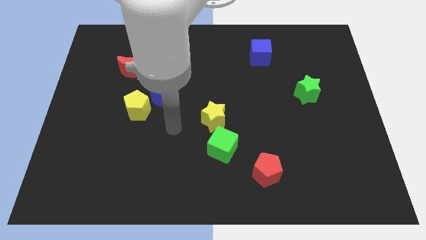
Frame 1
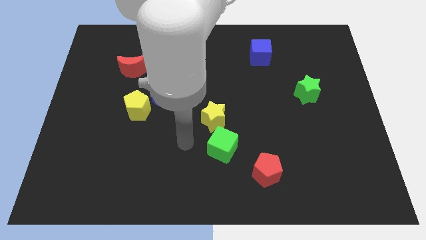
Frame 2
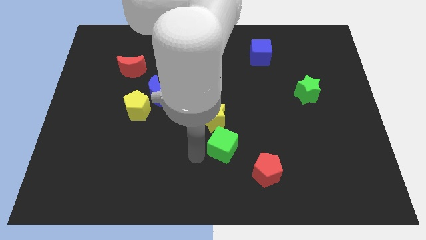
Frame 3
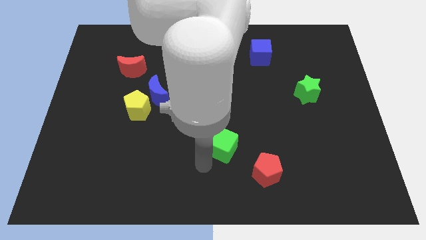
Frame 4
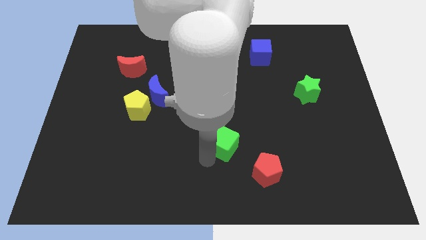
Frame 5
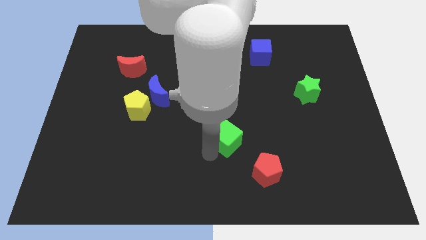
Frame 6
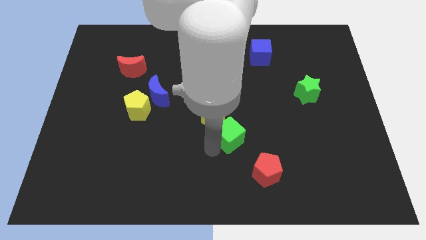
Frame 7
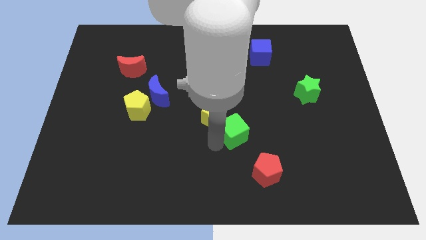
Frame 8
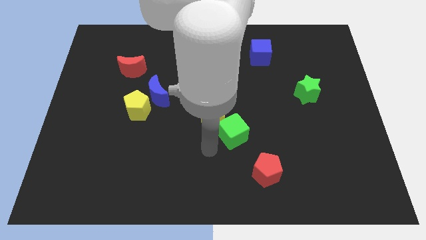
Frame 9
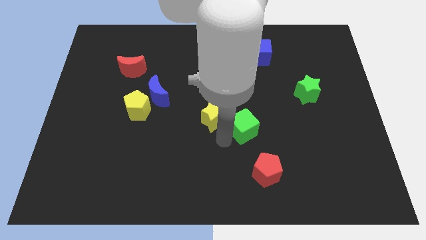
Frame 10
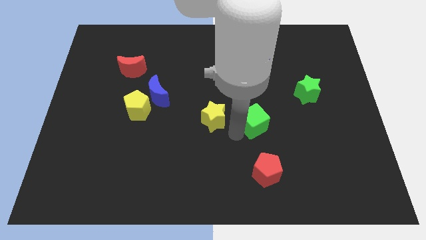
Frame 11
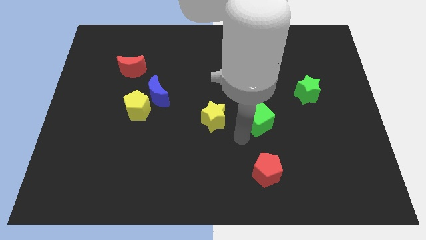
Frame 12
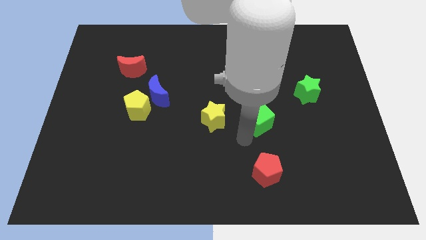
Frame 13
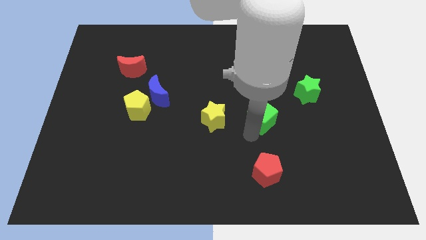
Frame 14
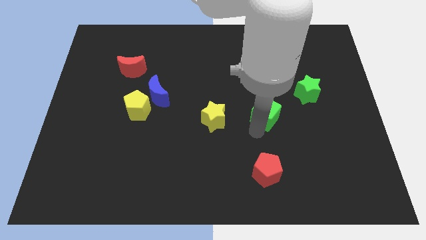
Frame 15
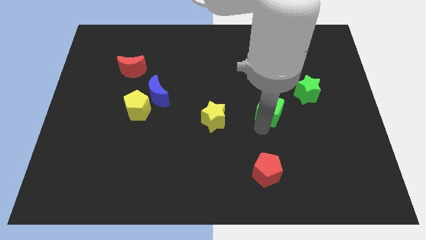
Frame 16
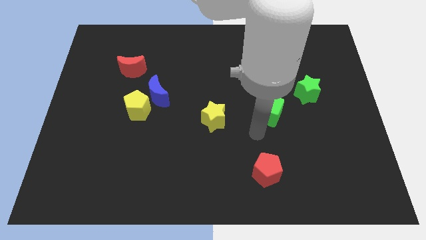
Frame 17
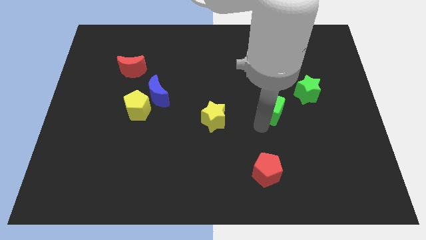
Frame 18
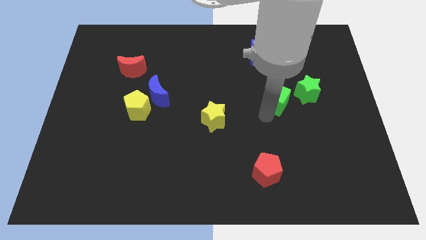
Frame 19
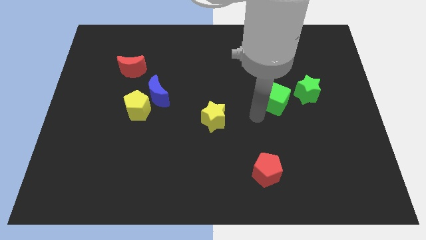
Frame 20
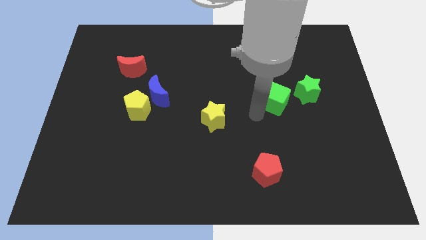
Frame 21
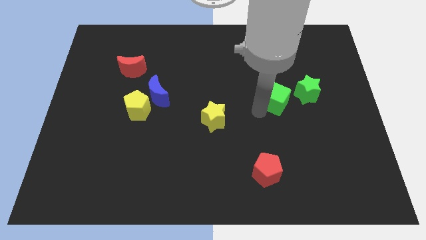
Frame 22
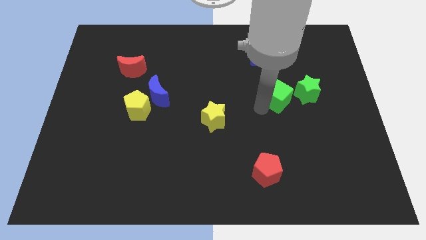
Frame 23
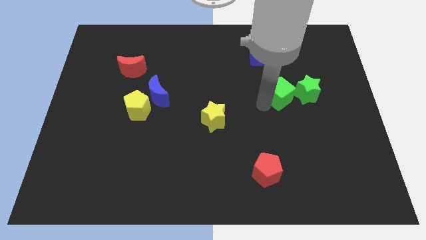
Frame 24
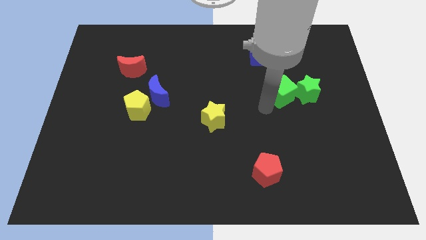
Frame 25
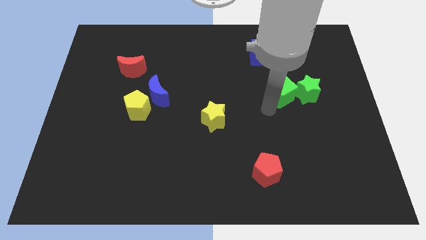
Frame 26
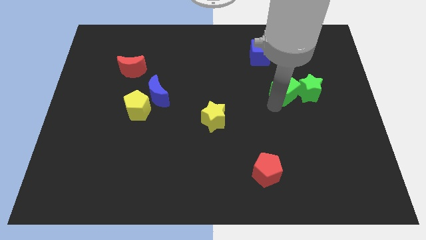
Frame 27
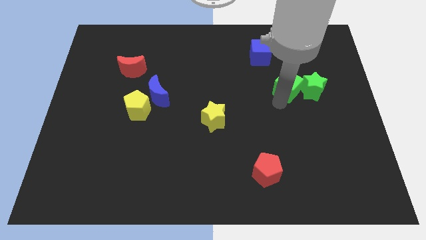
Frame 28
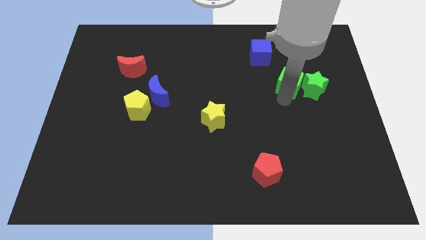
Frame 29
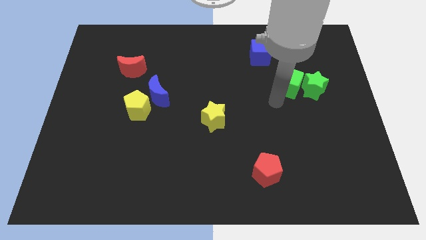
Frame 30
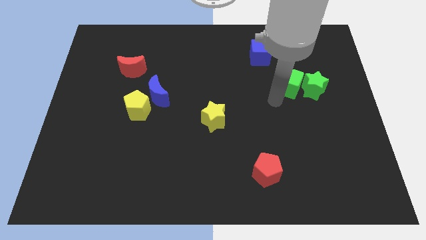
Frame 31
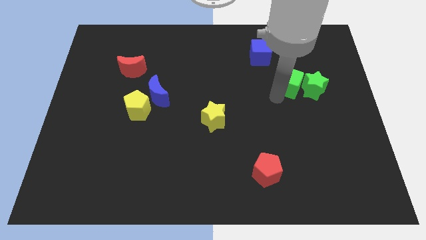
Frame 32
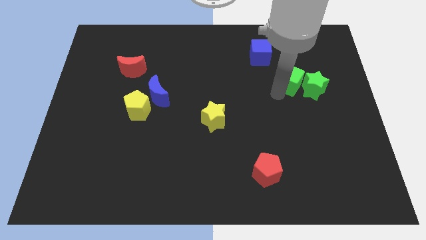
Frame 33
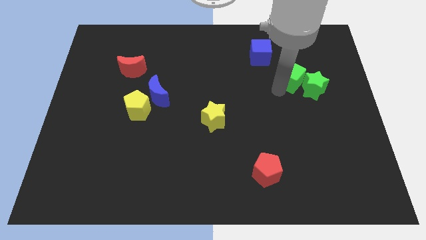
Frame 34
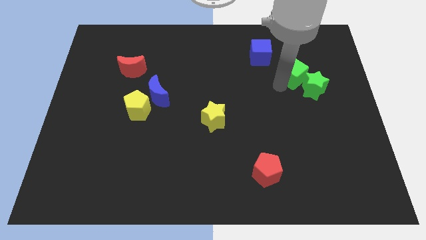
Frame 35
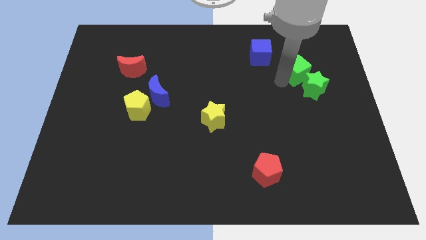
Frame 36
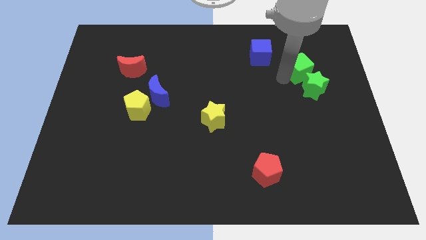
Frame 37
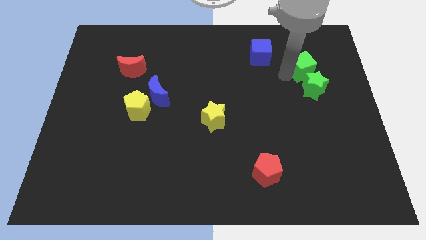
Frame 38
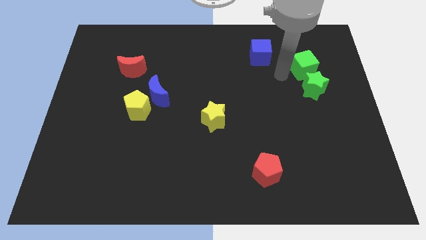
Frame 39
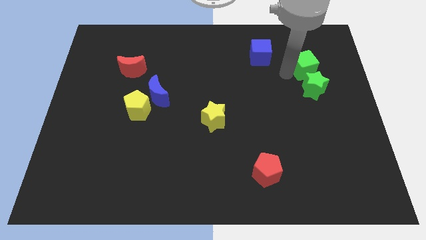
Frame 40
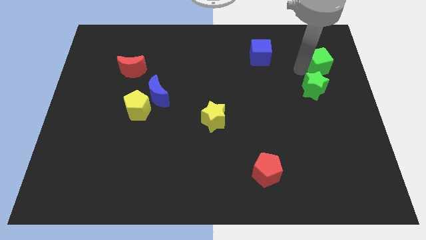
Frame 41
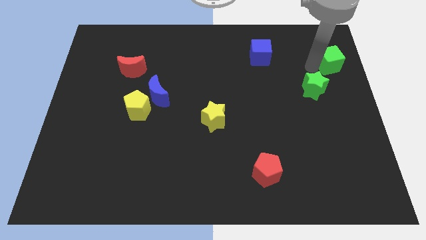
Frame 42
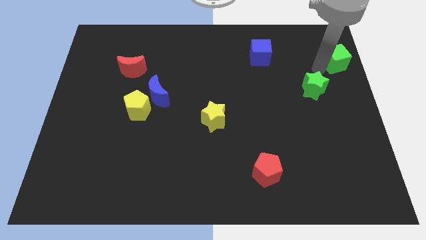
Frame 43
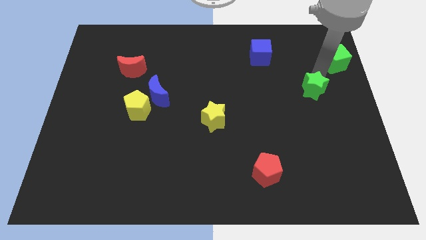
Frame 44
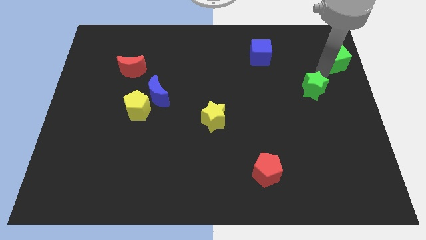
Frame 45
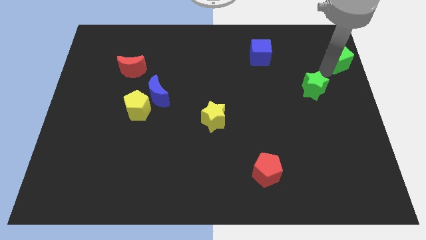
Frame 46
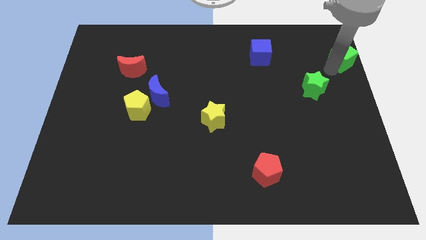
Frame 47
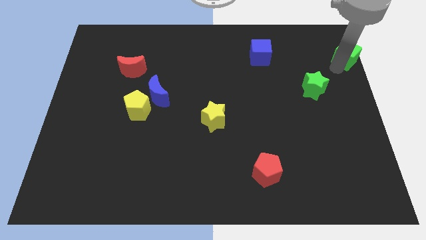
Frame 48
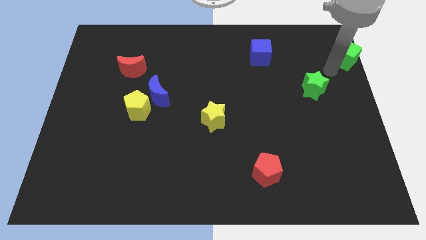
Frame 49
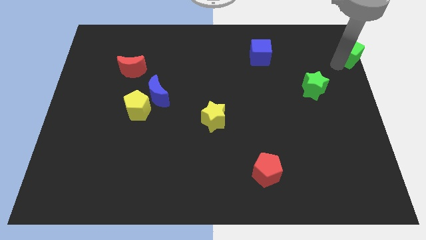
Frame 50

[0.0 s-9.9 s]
put the green cube to the top right corner

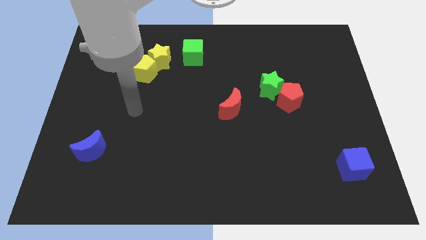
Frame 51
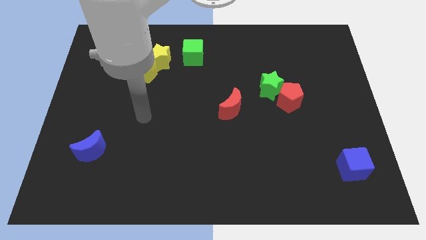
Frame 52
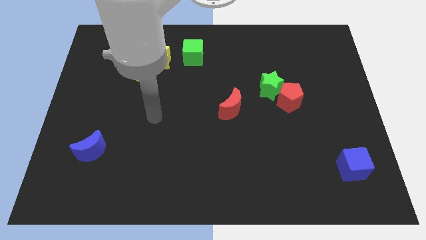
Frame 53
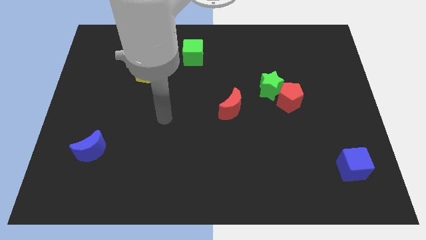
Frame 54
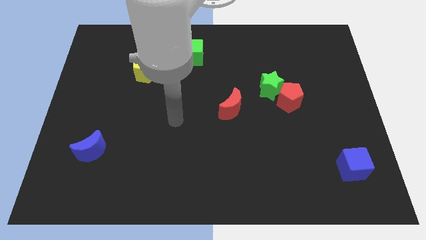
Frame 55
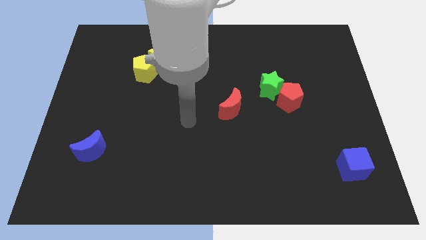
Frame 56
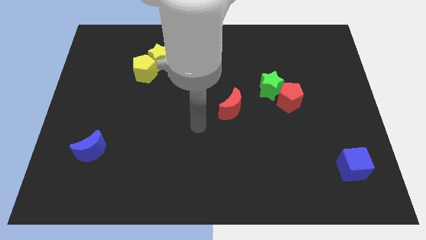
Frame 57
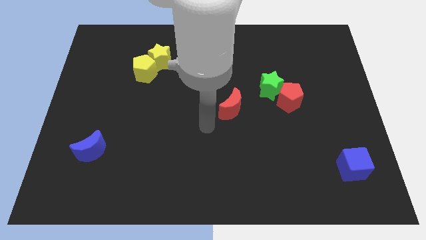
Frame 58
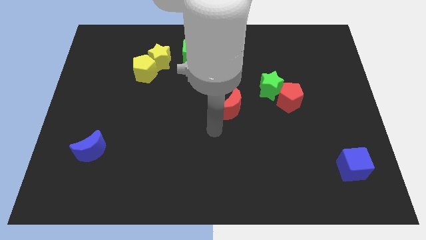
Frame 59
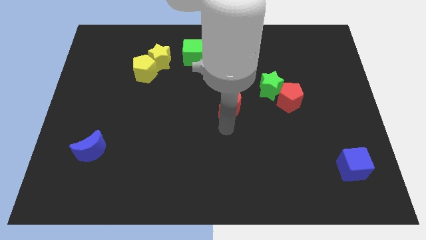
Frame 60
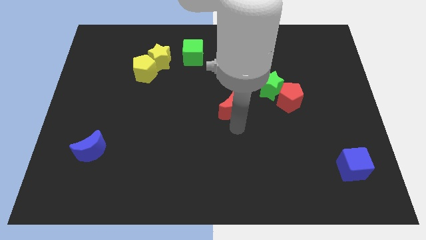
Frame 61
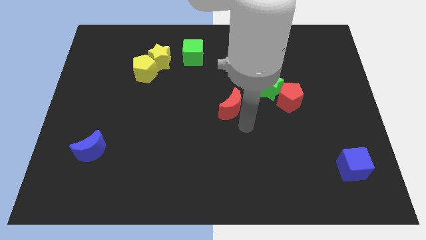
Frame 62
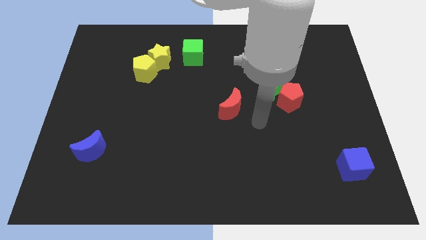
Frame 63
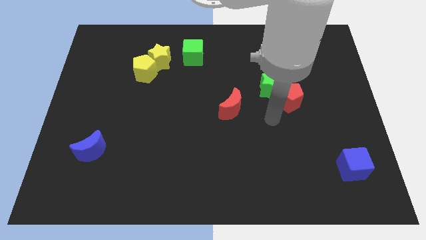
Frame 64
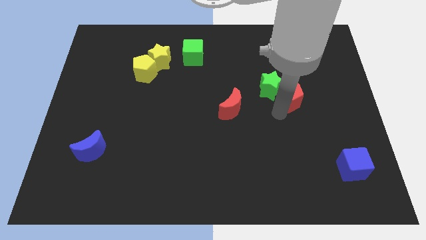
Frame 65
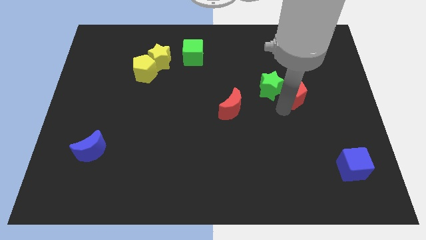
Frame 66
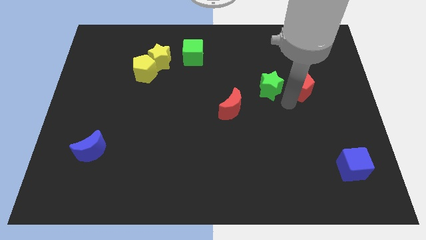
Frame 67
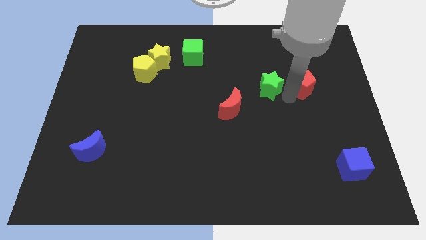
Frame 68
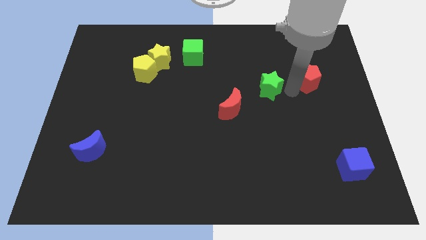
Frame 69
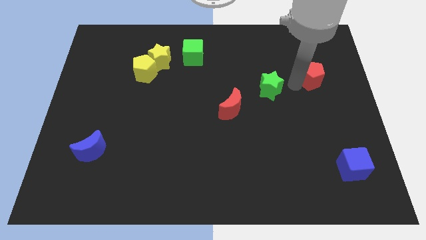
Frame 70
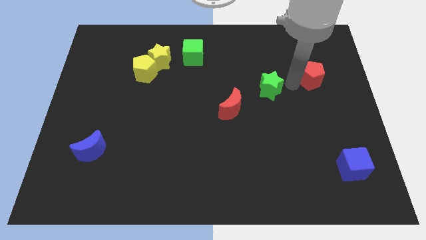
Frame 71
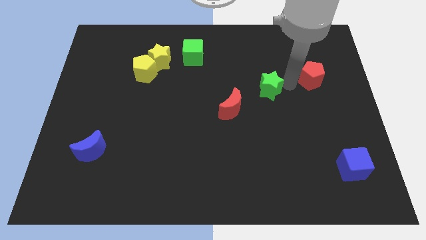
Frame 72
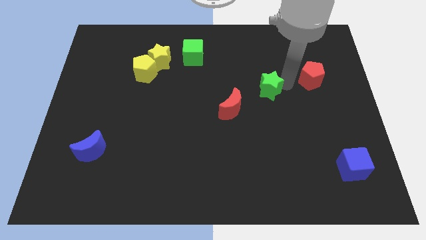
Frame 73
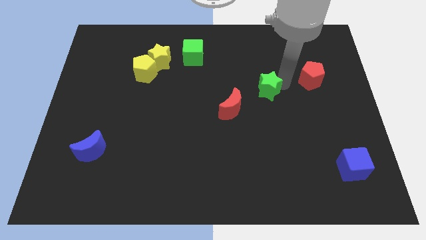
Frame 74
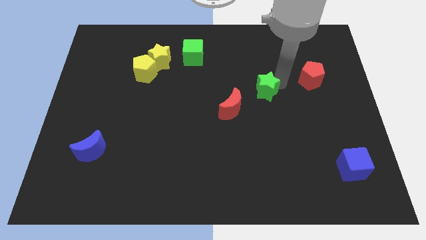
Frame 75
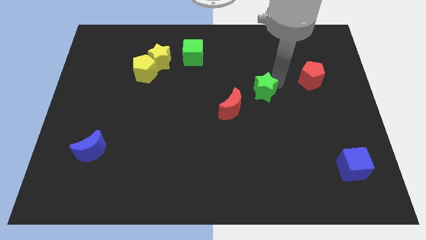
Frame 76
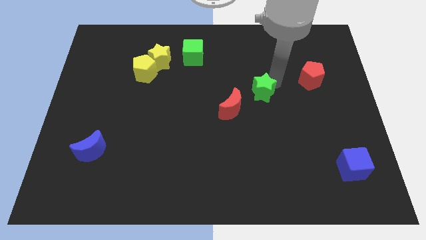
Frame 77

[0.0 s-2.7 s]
put the green star to the center of the board

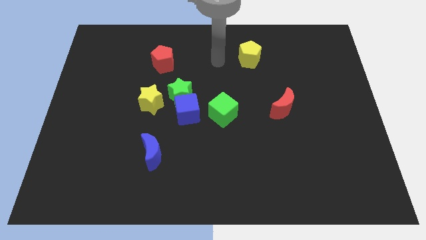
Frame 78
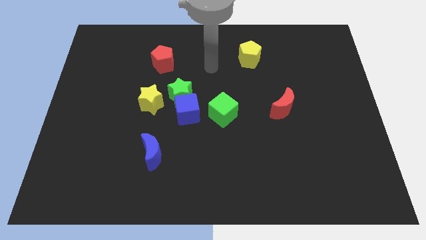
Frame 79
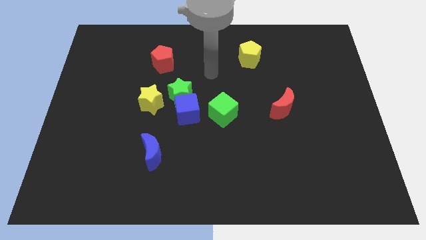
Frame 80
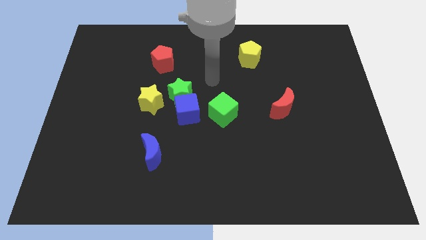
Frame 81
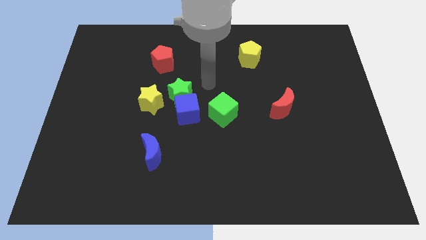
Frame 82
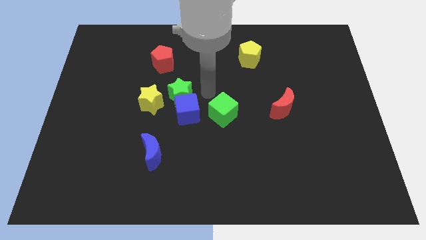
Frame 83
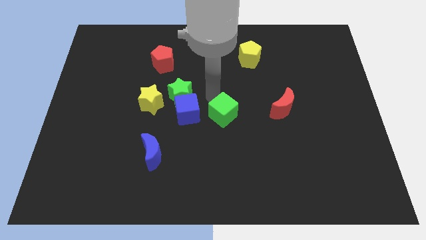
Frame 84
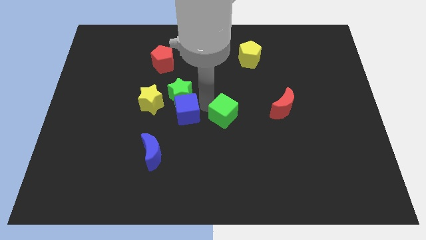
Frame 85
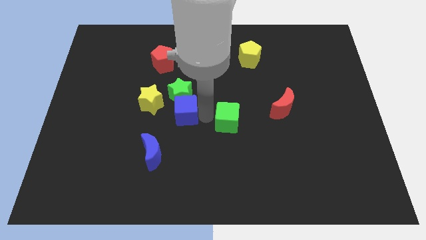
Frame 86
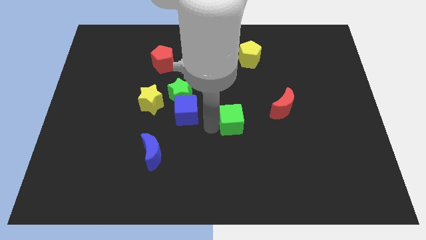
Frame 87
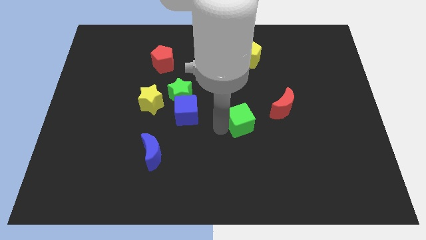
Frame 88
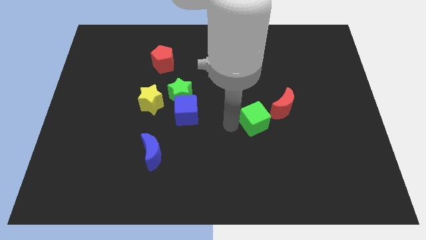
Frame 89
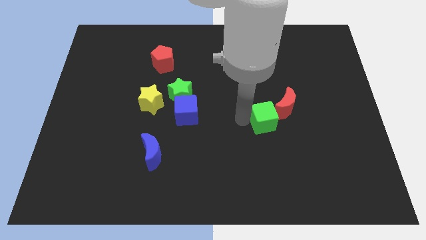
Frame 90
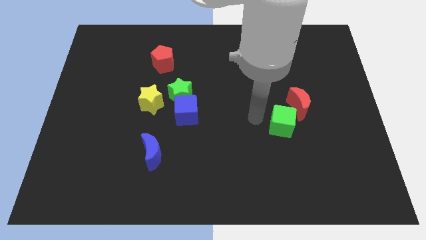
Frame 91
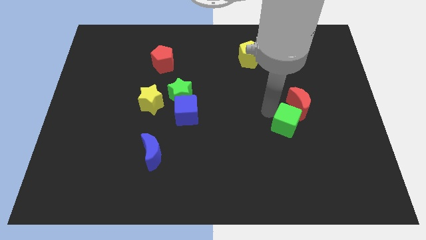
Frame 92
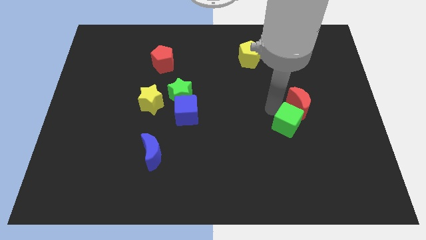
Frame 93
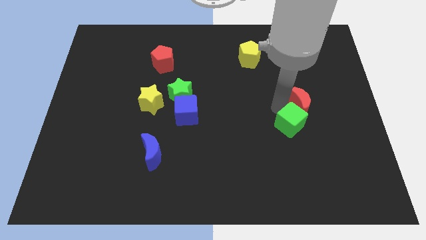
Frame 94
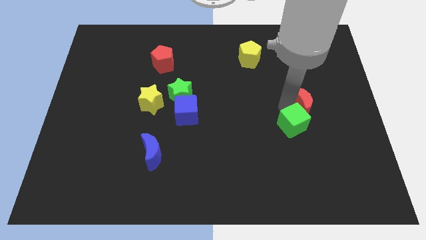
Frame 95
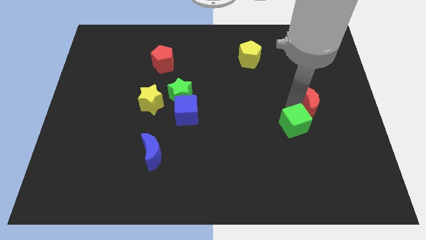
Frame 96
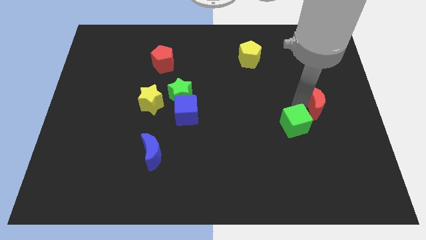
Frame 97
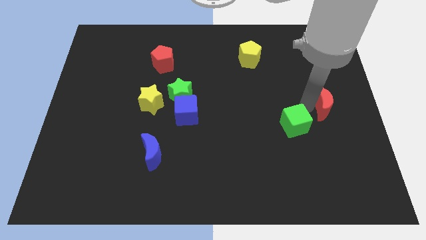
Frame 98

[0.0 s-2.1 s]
push the red moon to the center right
